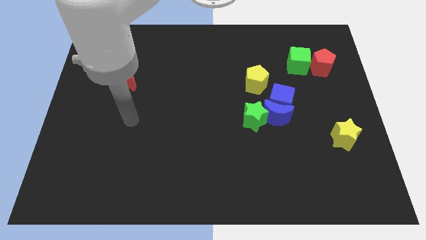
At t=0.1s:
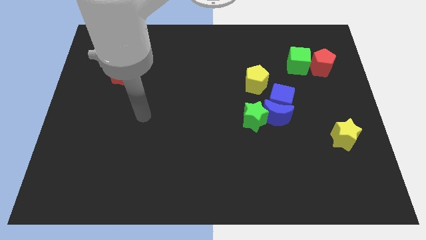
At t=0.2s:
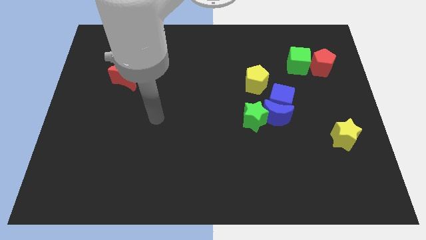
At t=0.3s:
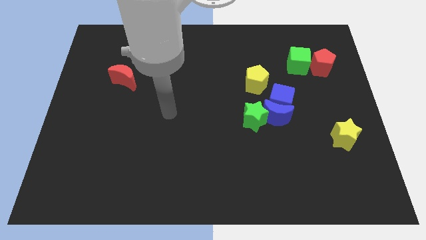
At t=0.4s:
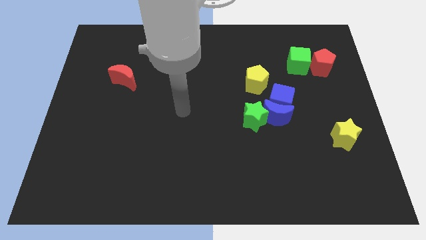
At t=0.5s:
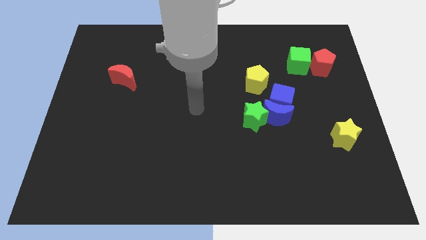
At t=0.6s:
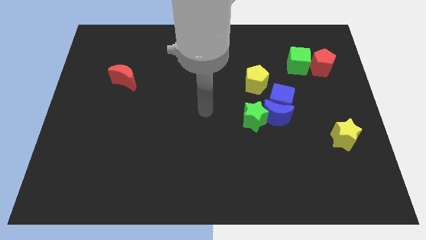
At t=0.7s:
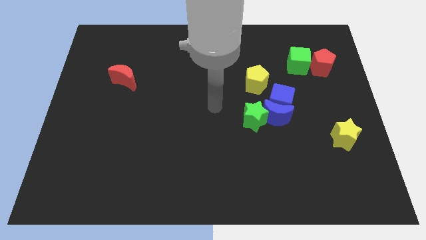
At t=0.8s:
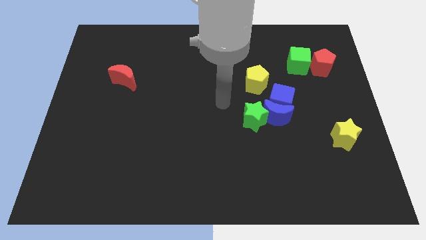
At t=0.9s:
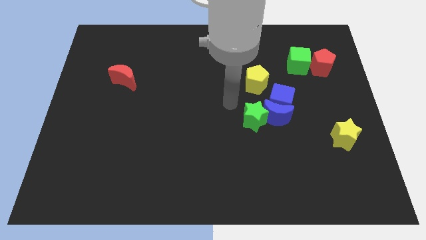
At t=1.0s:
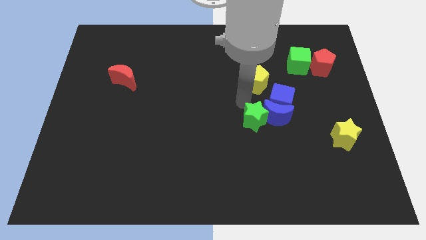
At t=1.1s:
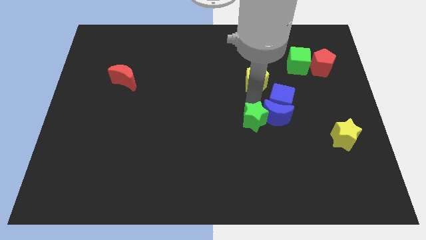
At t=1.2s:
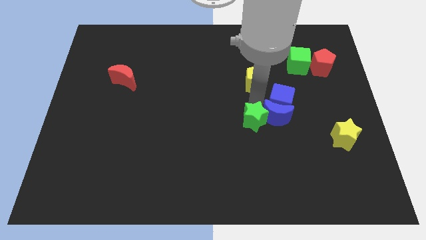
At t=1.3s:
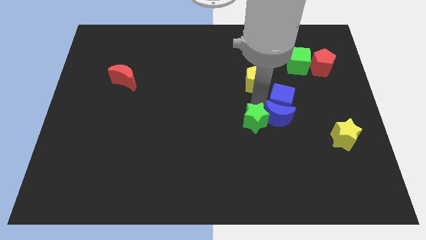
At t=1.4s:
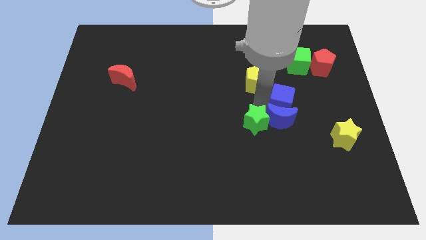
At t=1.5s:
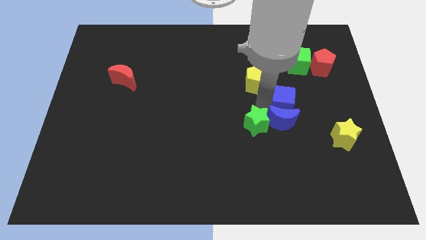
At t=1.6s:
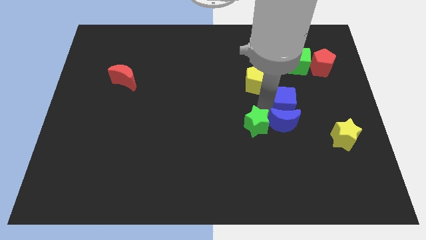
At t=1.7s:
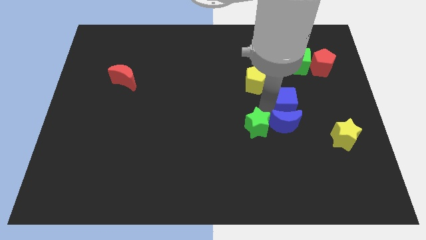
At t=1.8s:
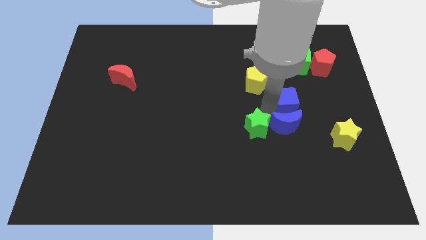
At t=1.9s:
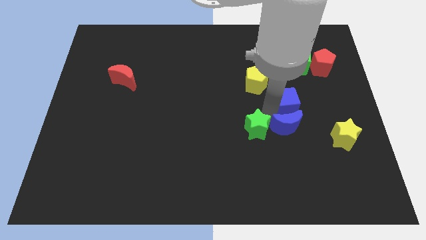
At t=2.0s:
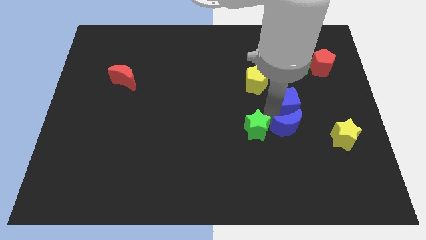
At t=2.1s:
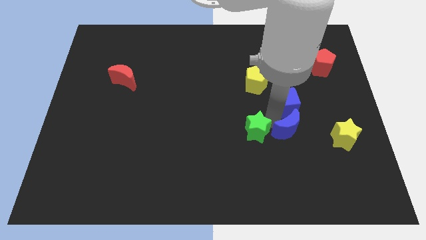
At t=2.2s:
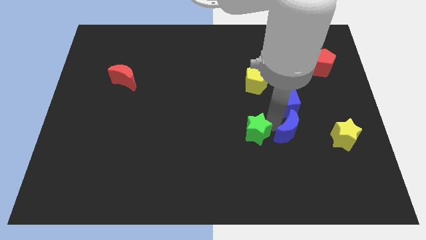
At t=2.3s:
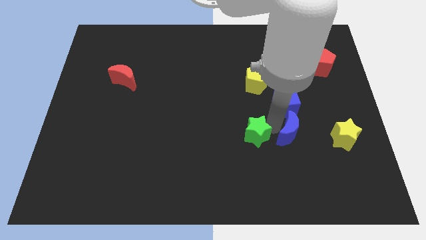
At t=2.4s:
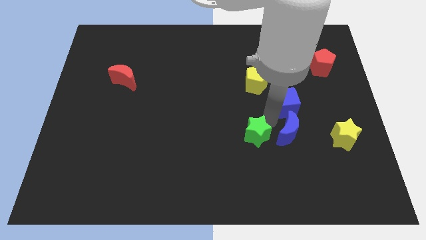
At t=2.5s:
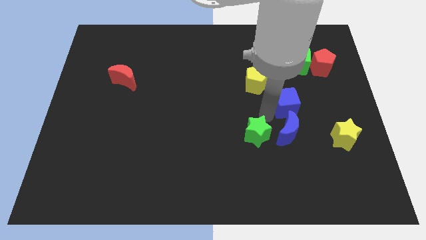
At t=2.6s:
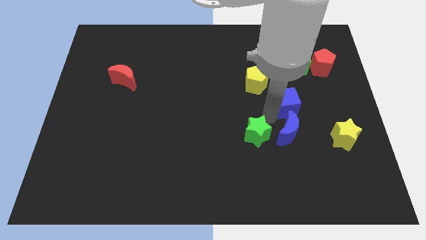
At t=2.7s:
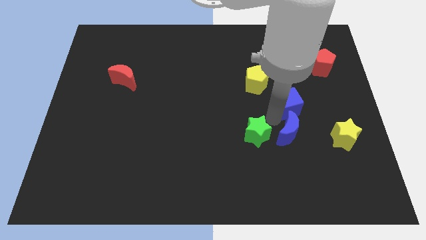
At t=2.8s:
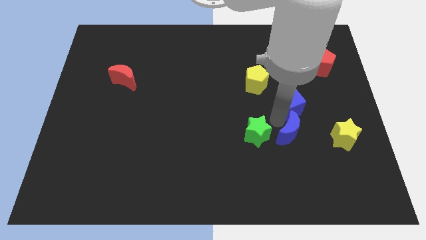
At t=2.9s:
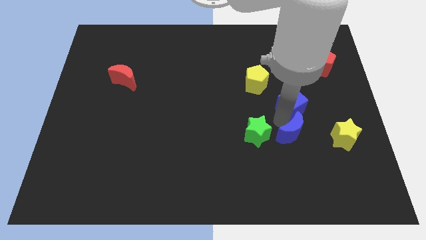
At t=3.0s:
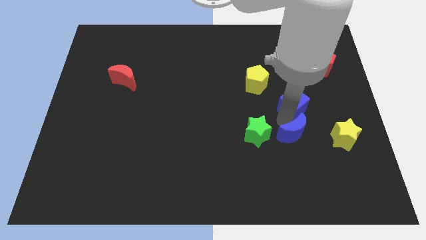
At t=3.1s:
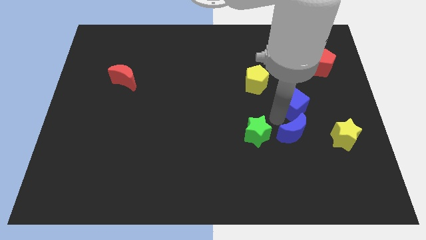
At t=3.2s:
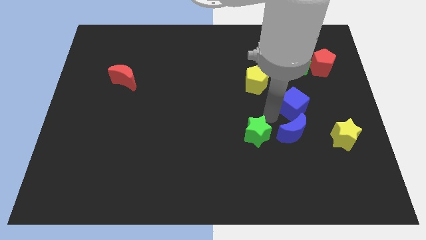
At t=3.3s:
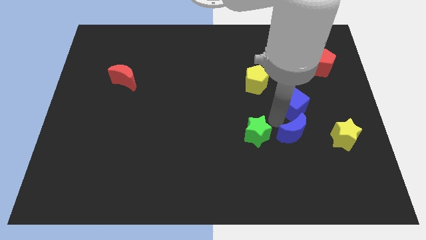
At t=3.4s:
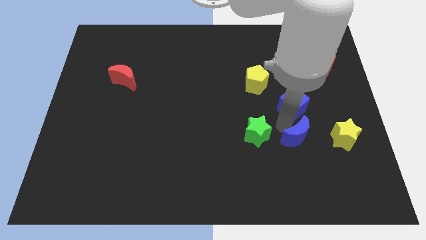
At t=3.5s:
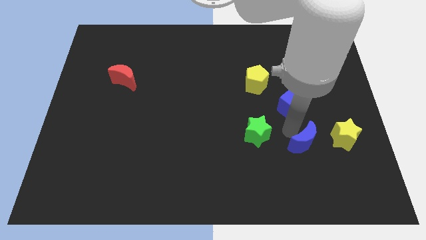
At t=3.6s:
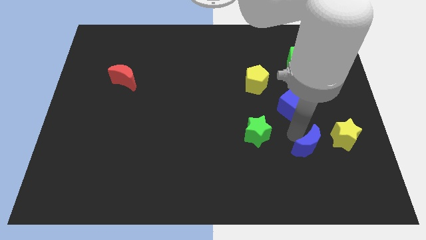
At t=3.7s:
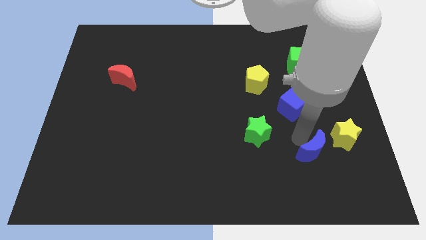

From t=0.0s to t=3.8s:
separate the blue moon from the blue cube and green star

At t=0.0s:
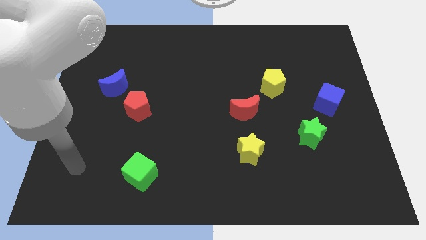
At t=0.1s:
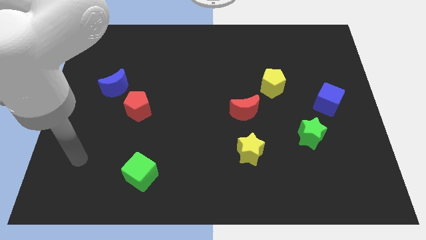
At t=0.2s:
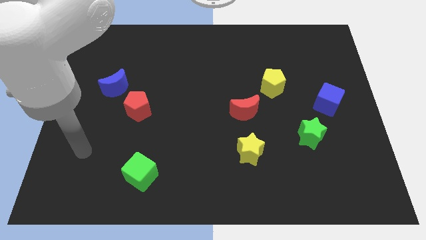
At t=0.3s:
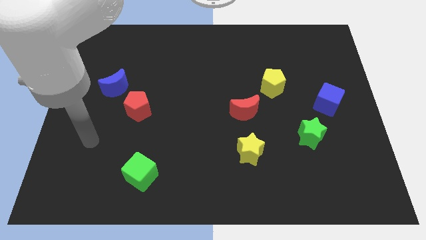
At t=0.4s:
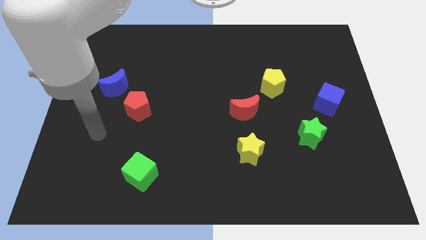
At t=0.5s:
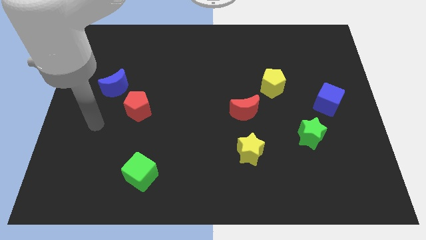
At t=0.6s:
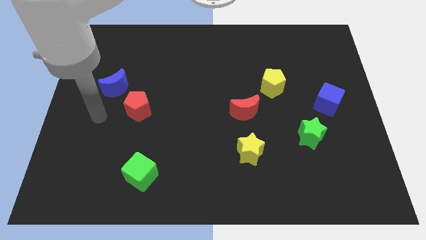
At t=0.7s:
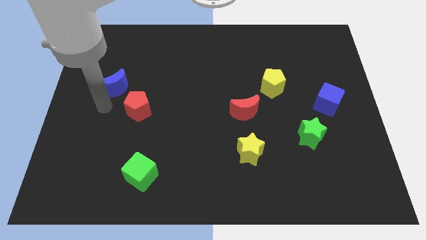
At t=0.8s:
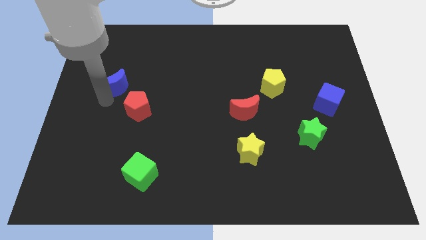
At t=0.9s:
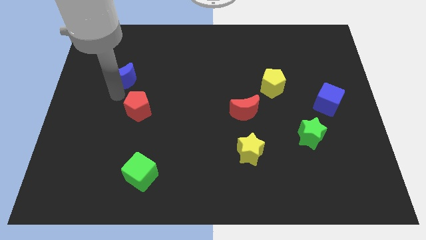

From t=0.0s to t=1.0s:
move the red pentagon away from the blue moon

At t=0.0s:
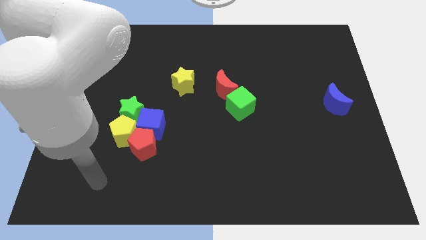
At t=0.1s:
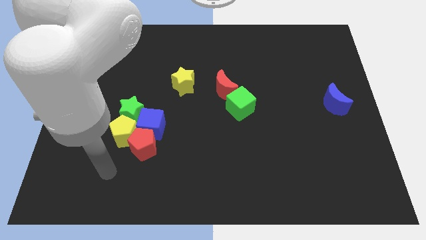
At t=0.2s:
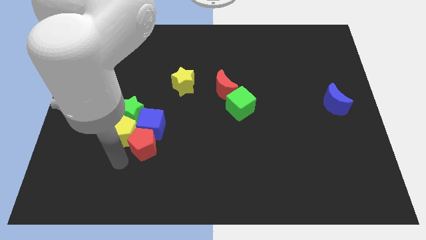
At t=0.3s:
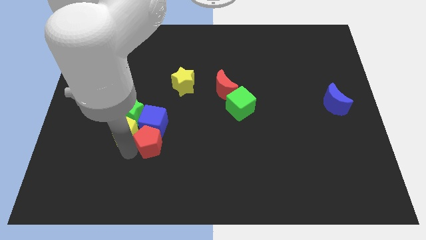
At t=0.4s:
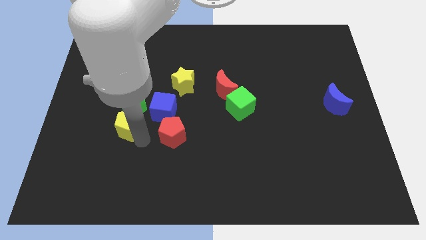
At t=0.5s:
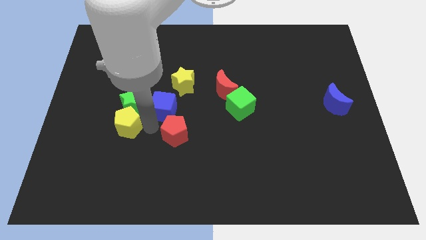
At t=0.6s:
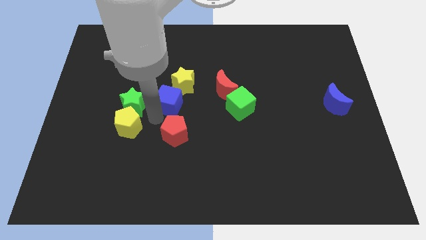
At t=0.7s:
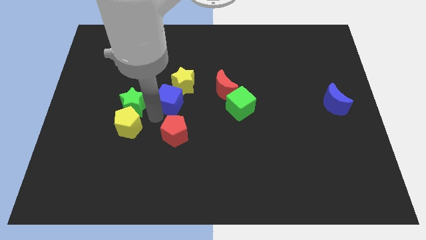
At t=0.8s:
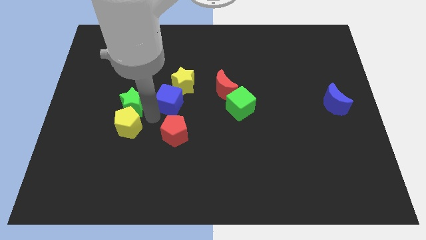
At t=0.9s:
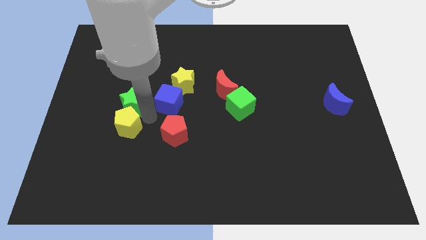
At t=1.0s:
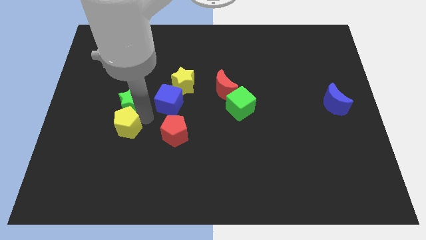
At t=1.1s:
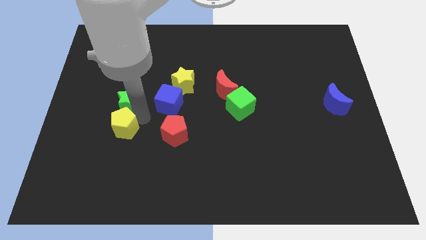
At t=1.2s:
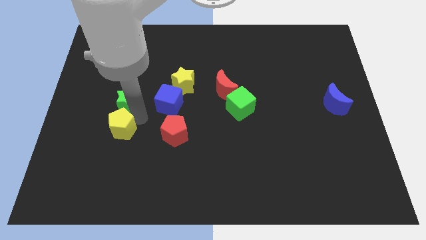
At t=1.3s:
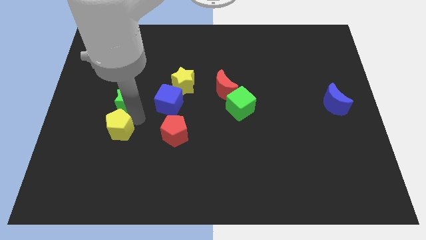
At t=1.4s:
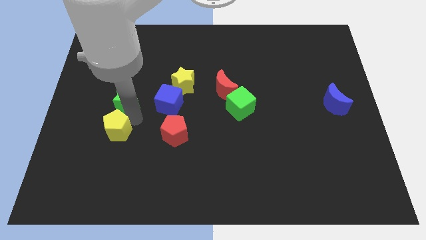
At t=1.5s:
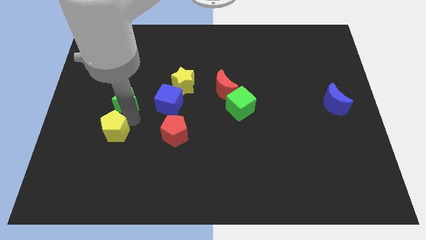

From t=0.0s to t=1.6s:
pull the yellow pentagon apart from the green star, red pentagon, and blue cube

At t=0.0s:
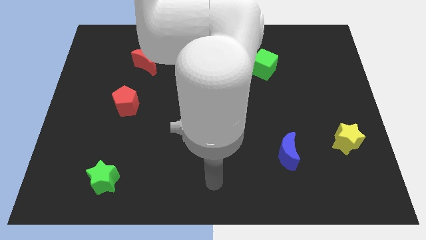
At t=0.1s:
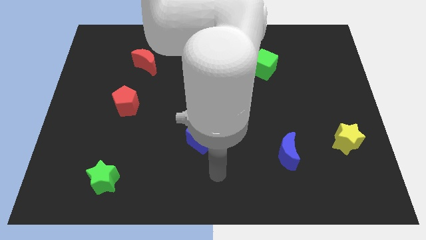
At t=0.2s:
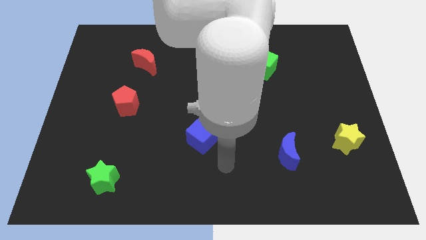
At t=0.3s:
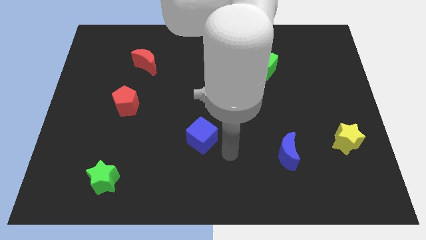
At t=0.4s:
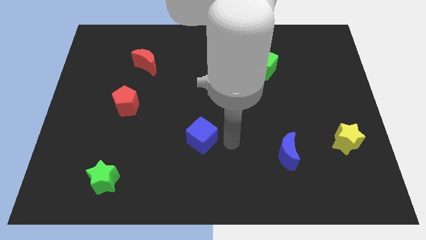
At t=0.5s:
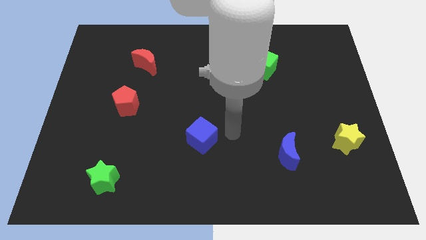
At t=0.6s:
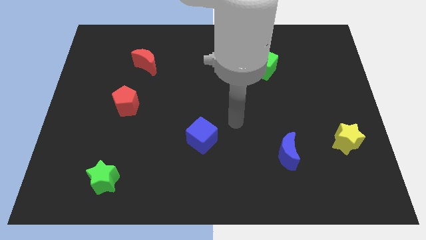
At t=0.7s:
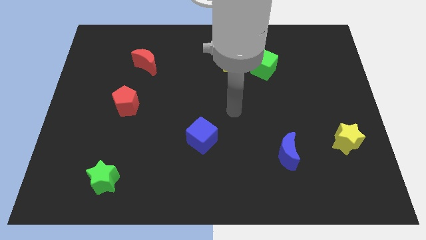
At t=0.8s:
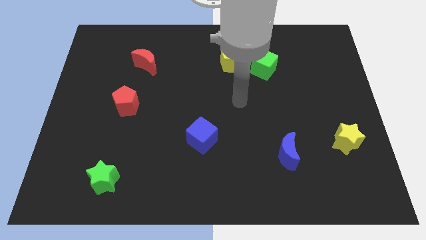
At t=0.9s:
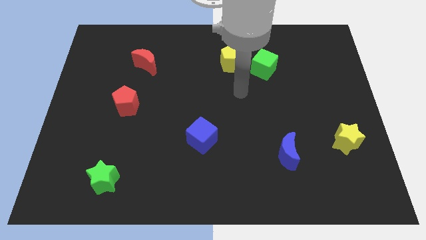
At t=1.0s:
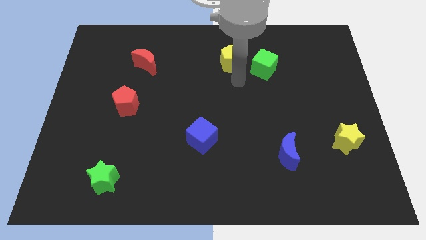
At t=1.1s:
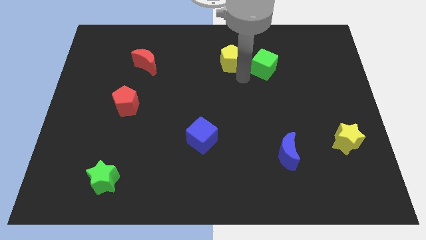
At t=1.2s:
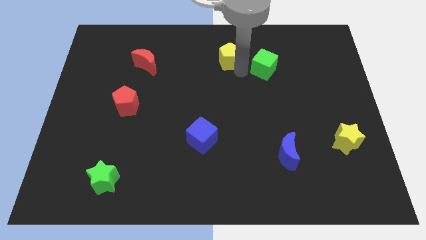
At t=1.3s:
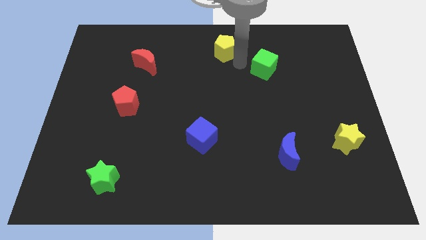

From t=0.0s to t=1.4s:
separate the green cube from the yellow pentagon

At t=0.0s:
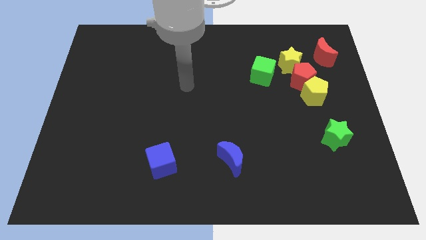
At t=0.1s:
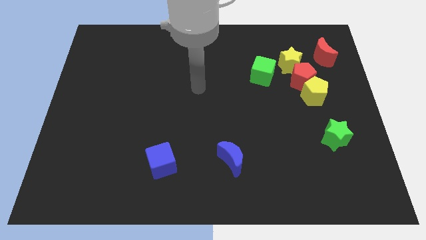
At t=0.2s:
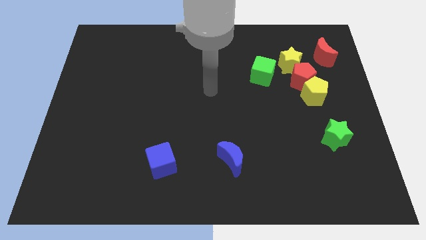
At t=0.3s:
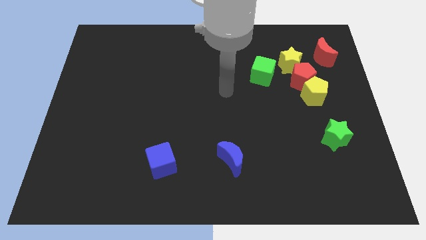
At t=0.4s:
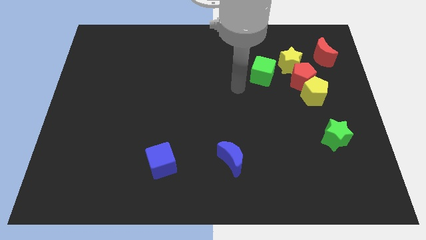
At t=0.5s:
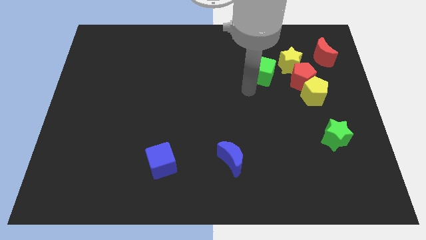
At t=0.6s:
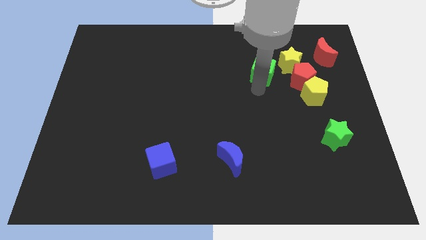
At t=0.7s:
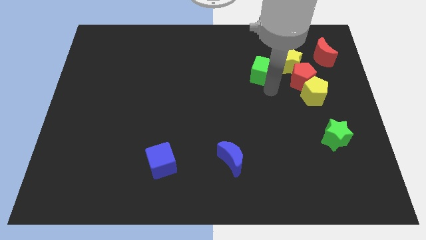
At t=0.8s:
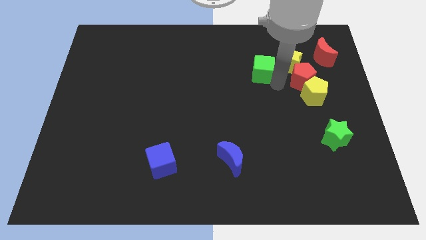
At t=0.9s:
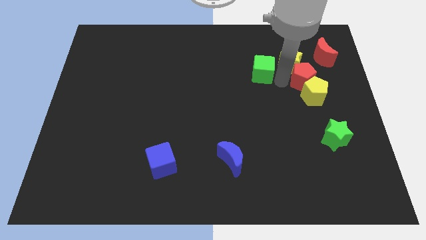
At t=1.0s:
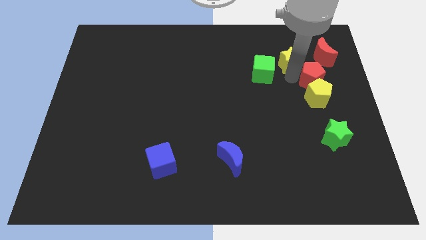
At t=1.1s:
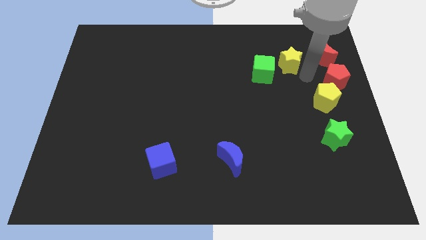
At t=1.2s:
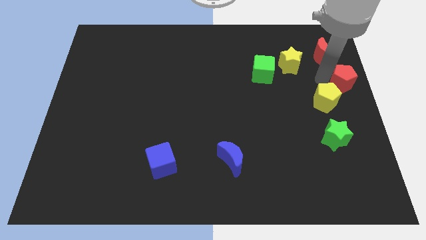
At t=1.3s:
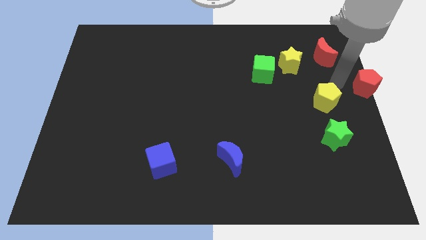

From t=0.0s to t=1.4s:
move the yellow pentagon away from the red pentagon

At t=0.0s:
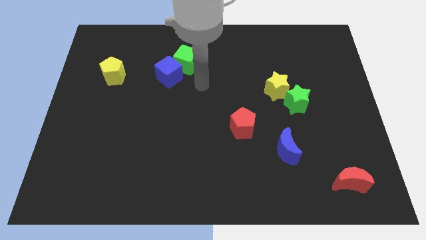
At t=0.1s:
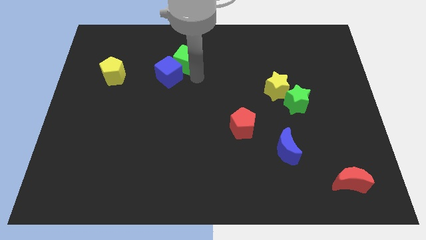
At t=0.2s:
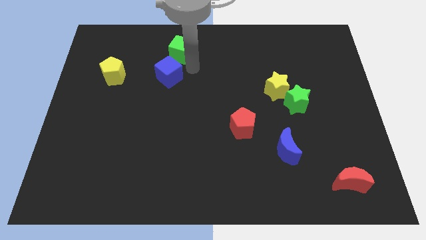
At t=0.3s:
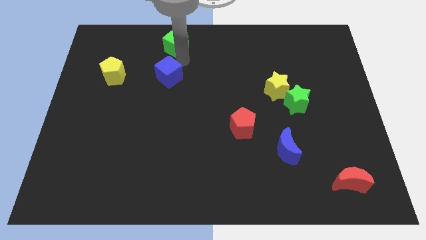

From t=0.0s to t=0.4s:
pull the blue cube apart from the green cube
